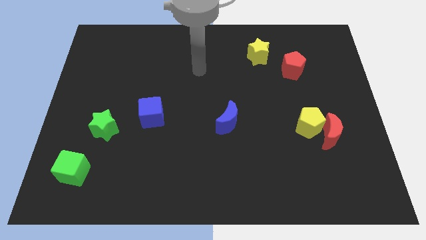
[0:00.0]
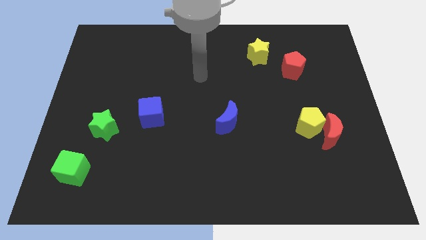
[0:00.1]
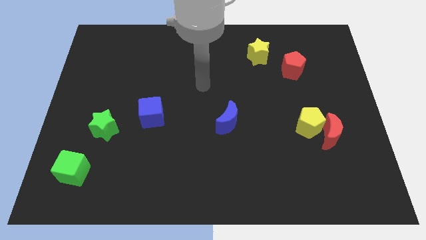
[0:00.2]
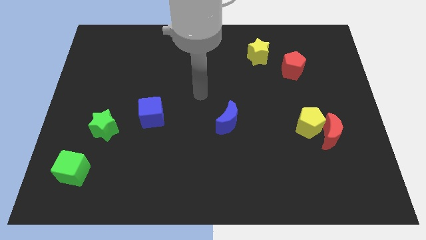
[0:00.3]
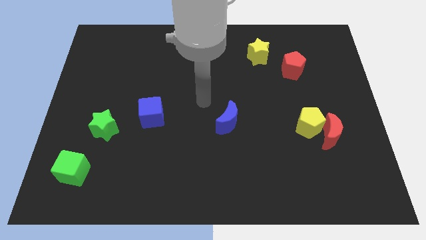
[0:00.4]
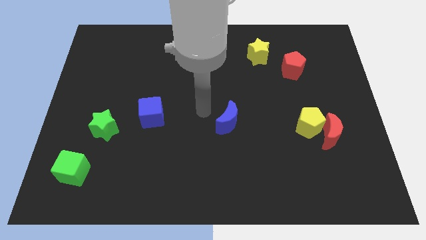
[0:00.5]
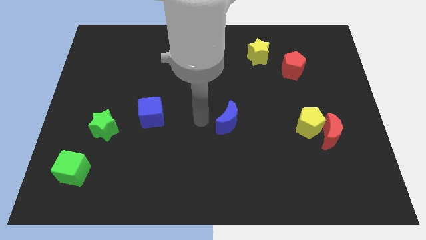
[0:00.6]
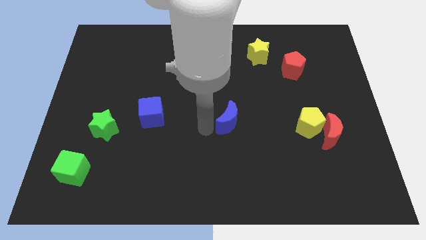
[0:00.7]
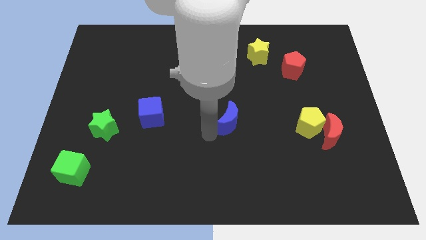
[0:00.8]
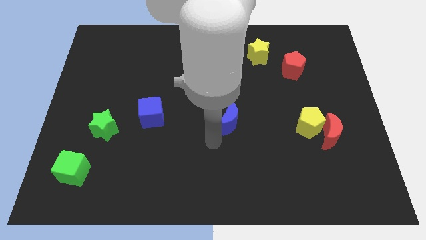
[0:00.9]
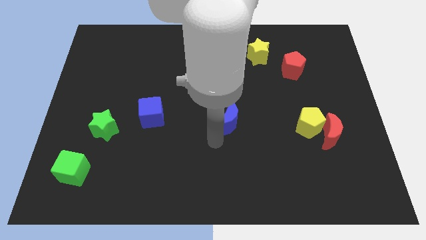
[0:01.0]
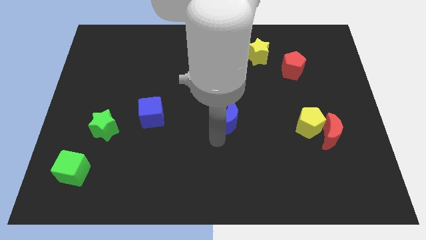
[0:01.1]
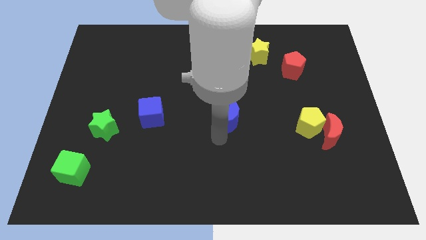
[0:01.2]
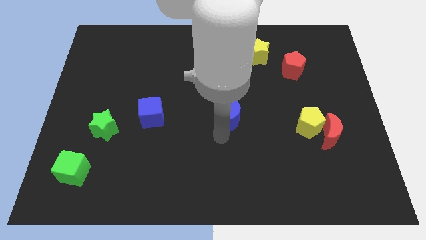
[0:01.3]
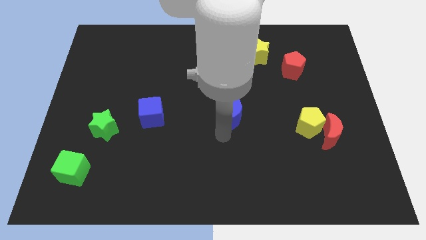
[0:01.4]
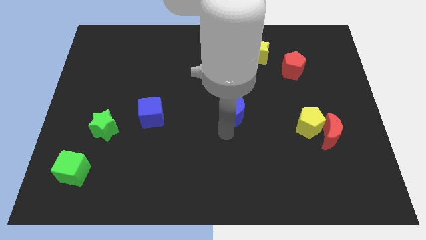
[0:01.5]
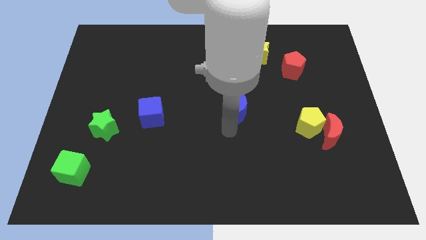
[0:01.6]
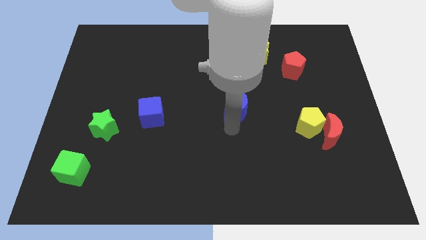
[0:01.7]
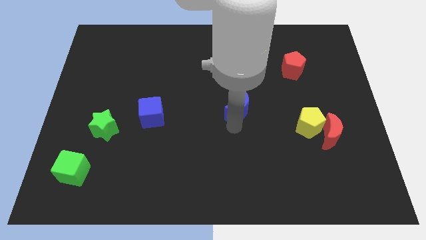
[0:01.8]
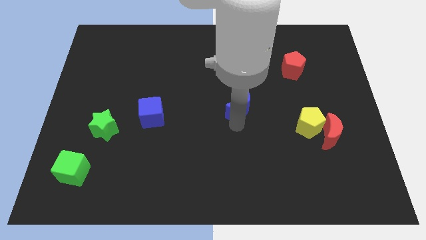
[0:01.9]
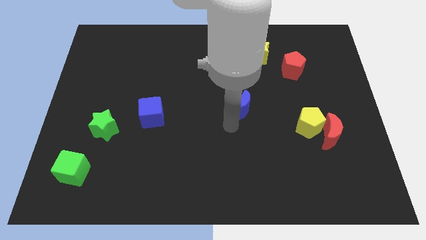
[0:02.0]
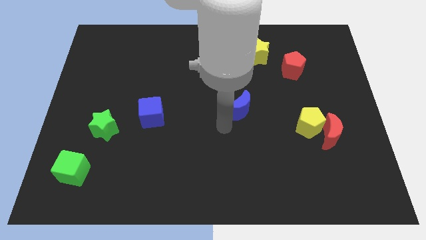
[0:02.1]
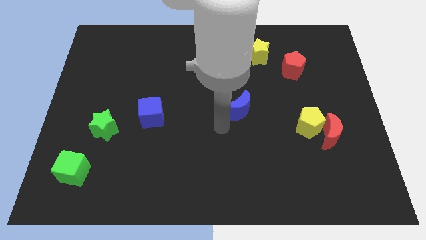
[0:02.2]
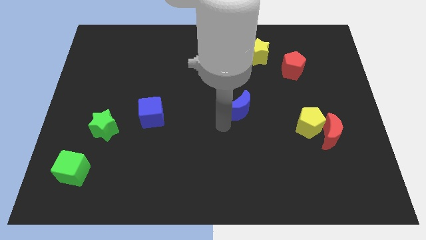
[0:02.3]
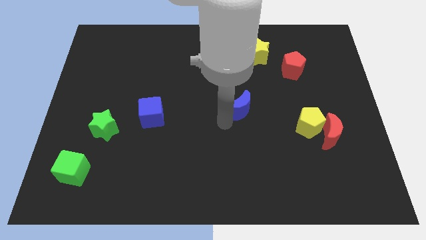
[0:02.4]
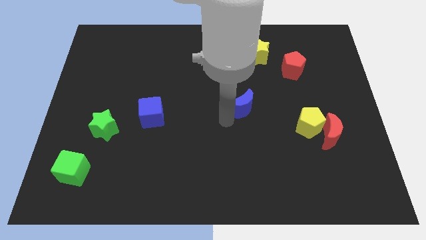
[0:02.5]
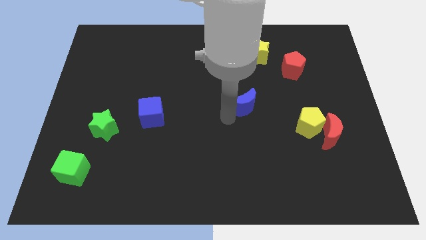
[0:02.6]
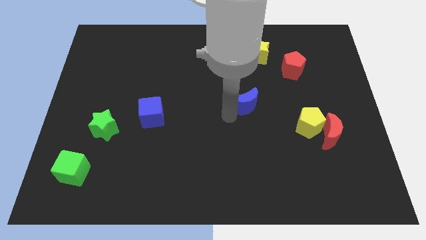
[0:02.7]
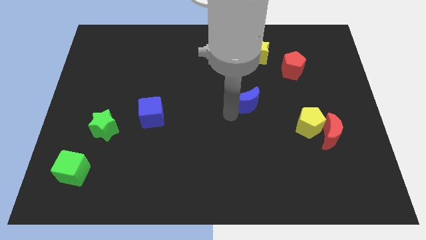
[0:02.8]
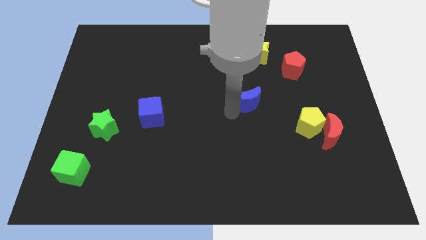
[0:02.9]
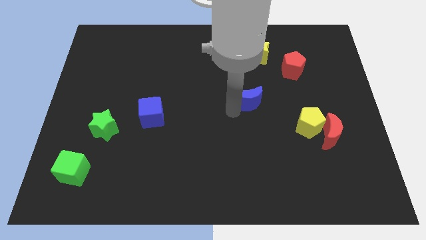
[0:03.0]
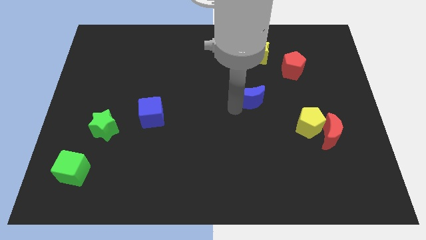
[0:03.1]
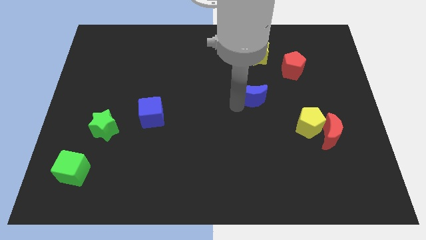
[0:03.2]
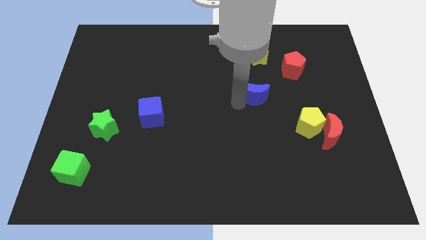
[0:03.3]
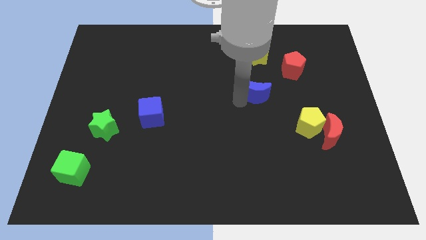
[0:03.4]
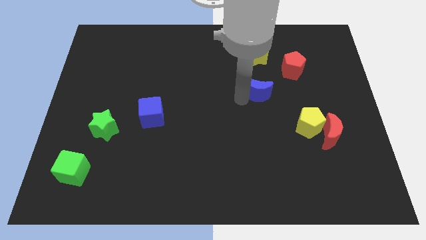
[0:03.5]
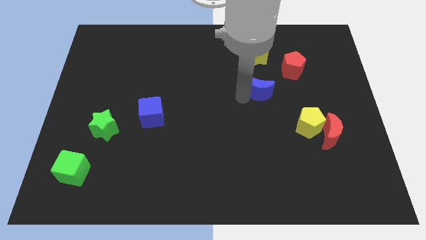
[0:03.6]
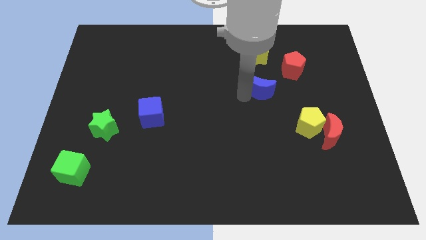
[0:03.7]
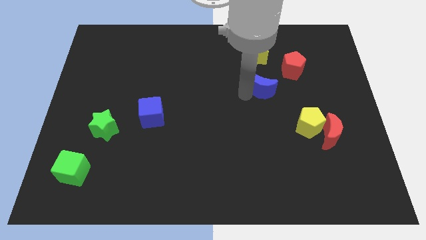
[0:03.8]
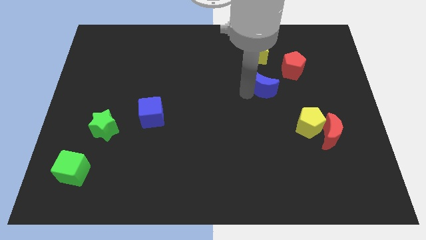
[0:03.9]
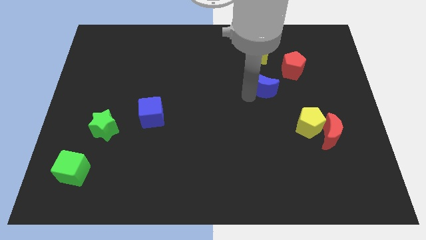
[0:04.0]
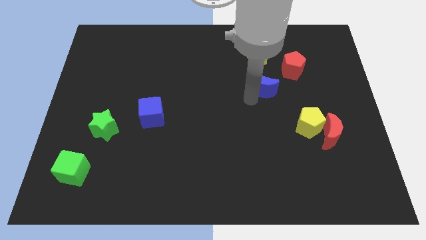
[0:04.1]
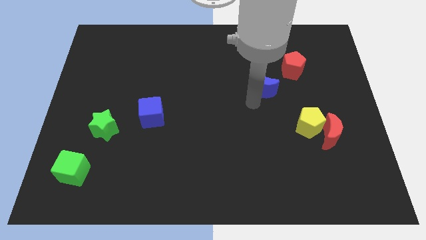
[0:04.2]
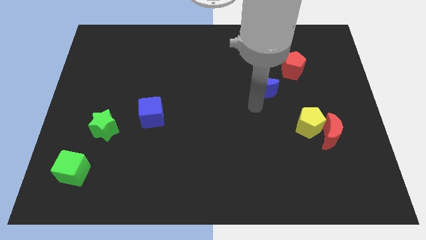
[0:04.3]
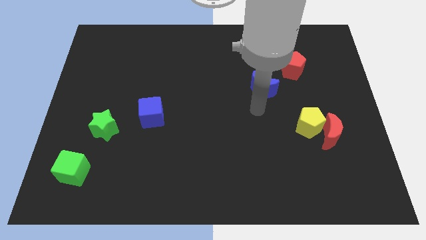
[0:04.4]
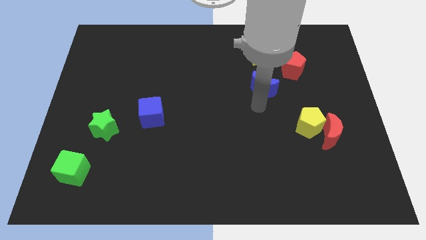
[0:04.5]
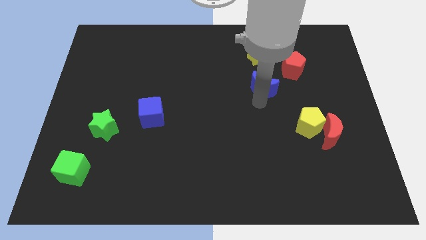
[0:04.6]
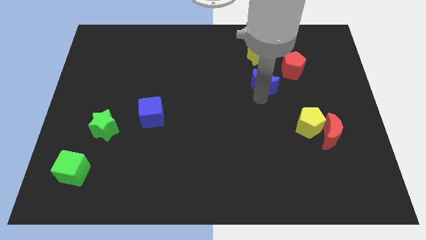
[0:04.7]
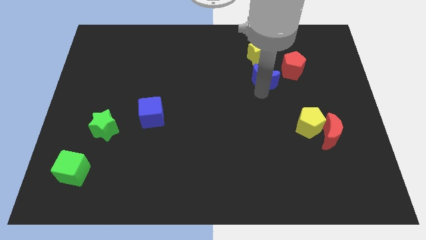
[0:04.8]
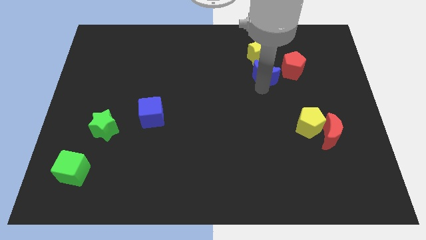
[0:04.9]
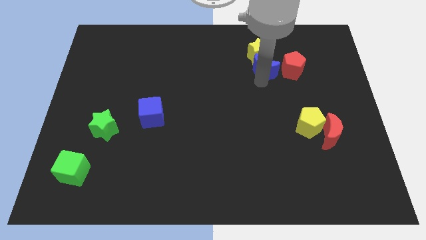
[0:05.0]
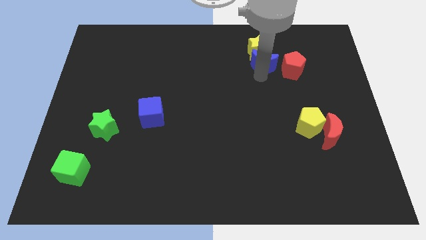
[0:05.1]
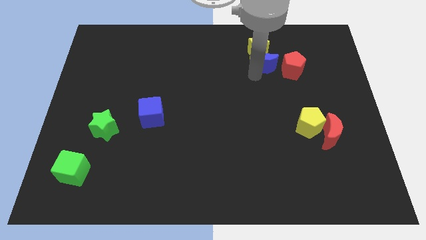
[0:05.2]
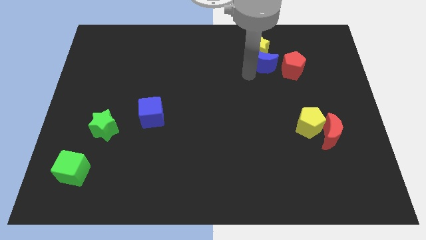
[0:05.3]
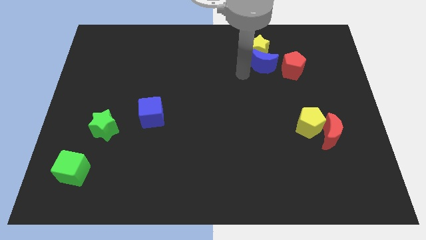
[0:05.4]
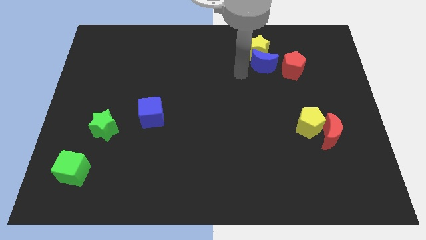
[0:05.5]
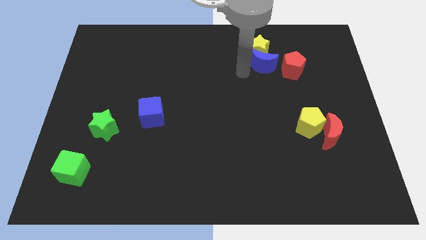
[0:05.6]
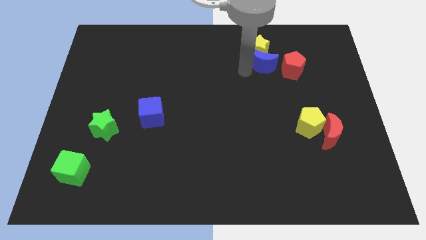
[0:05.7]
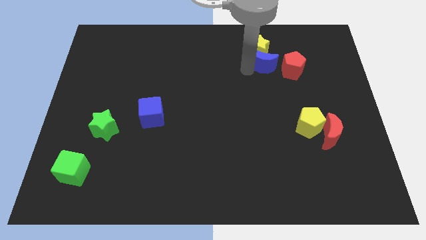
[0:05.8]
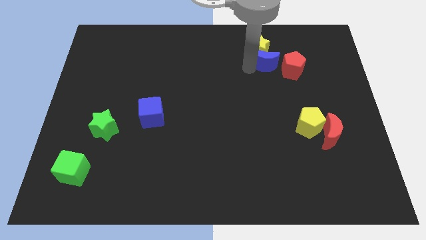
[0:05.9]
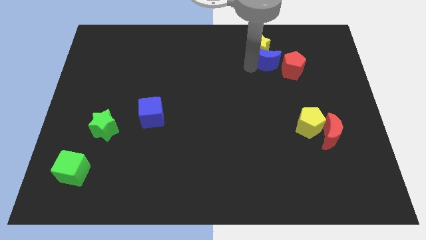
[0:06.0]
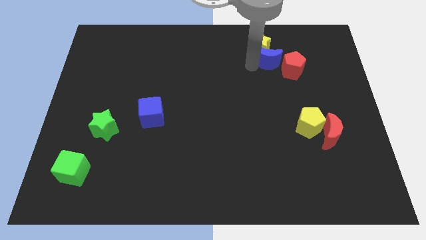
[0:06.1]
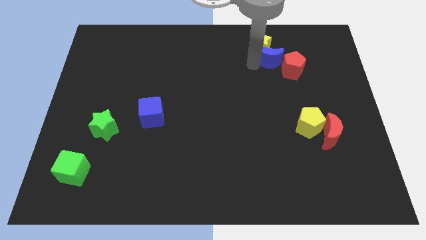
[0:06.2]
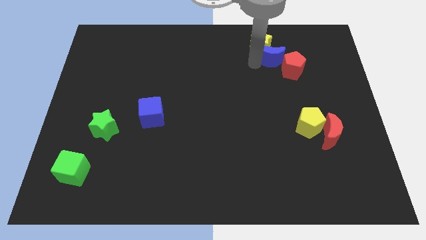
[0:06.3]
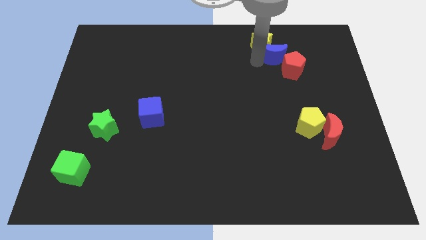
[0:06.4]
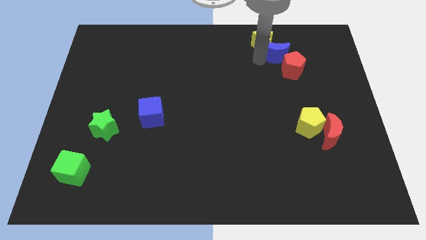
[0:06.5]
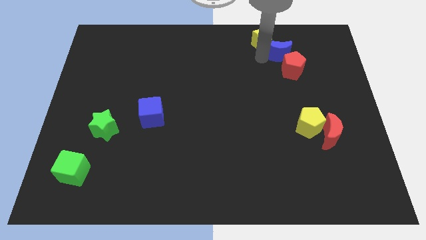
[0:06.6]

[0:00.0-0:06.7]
slide the blue moon just right of the yellow star
